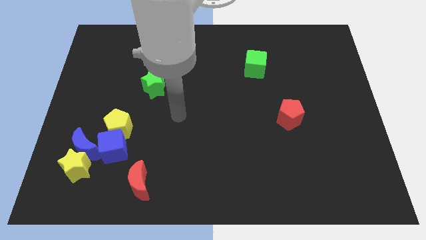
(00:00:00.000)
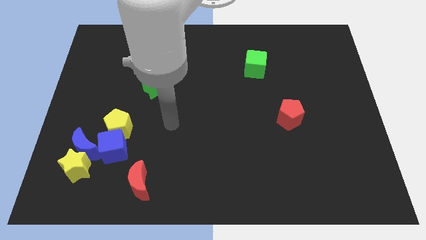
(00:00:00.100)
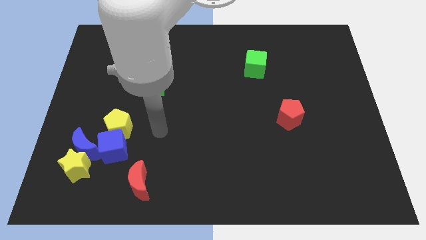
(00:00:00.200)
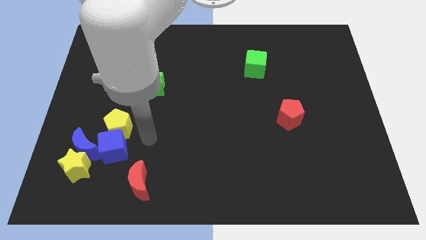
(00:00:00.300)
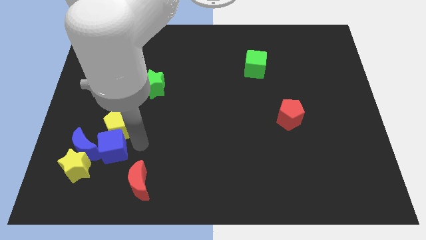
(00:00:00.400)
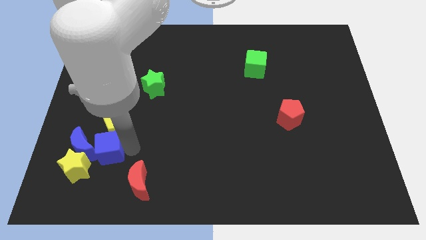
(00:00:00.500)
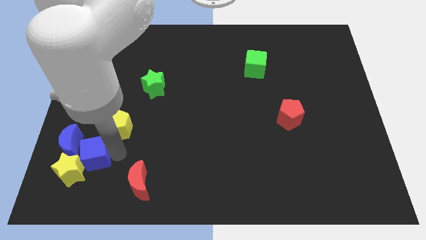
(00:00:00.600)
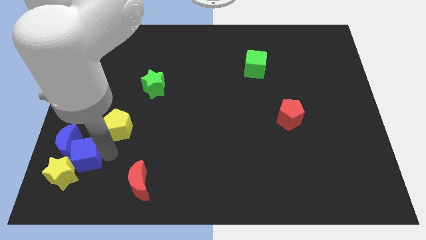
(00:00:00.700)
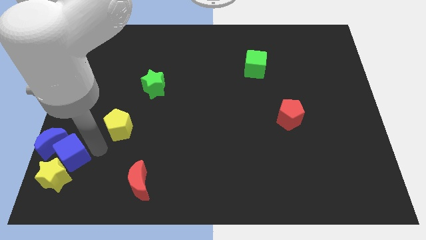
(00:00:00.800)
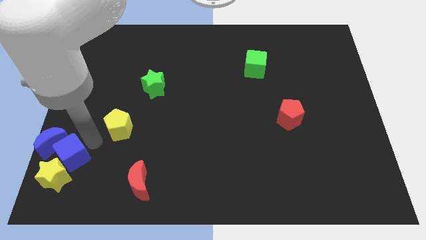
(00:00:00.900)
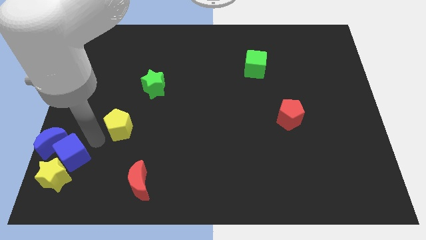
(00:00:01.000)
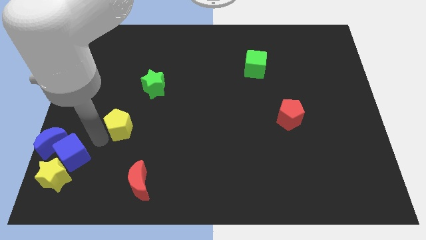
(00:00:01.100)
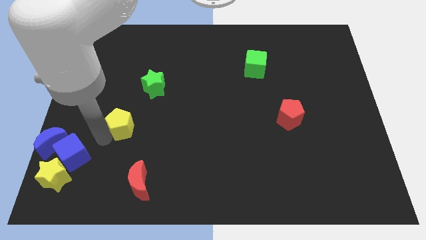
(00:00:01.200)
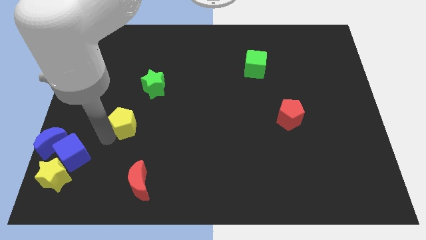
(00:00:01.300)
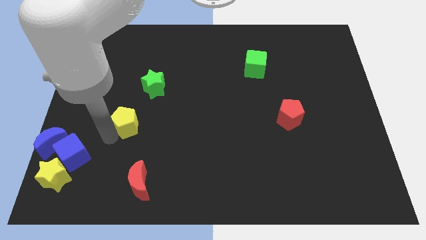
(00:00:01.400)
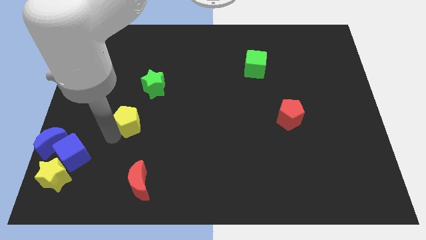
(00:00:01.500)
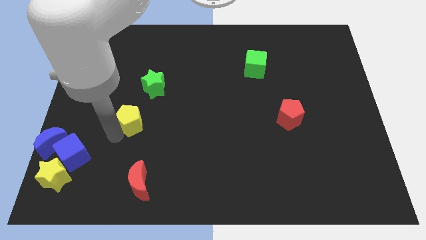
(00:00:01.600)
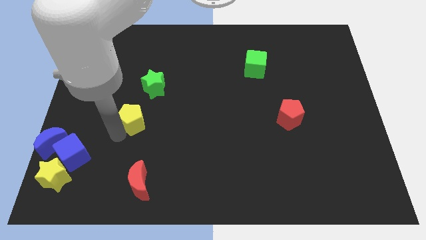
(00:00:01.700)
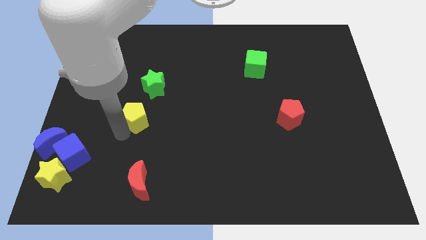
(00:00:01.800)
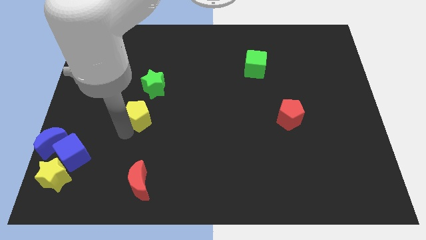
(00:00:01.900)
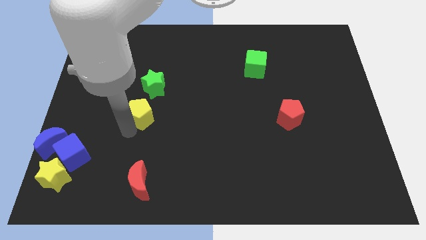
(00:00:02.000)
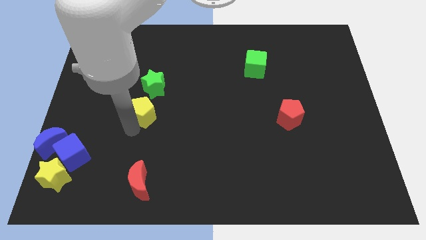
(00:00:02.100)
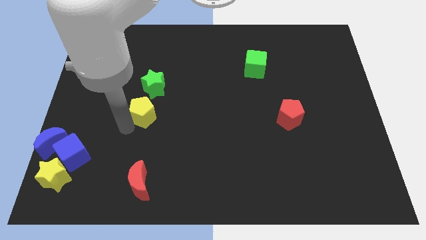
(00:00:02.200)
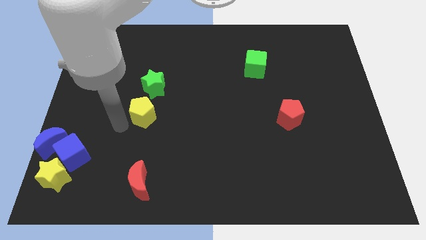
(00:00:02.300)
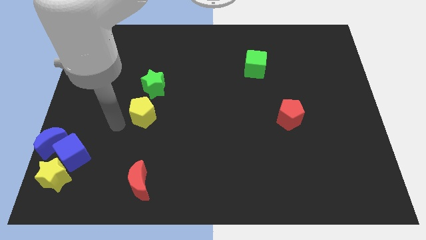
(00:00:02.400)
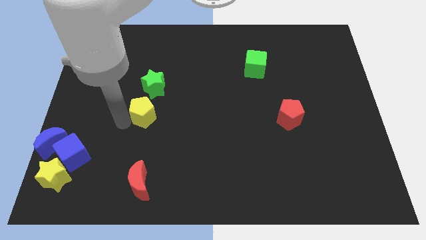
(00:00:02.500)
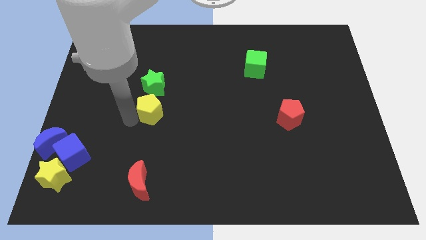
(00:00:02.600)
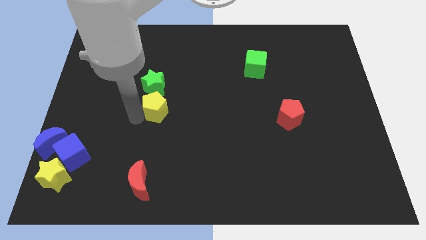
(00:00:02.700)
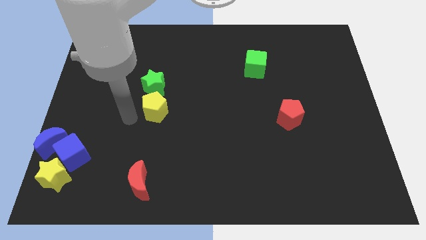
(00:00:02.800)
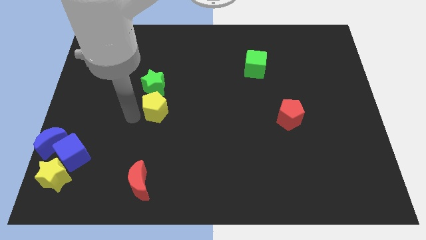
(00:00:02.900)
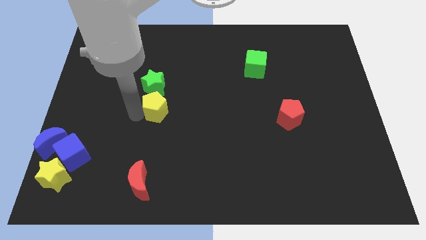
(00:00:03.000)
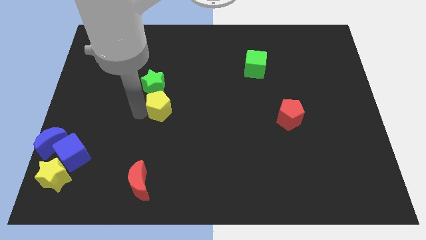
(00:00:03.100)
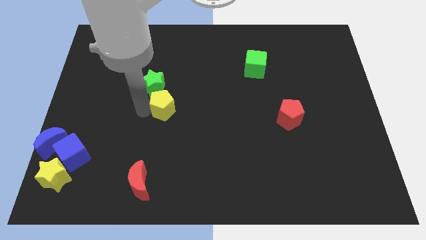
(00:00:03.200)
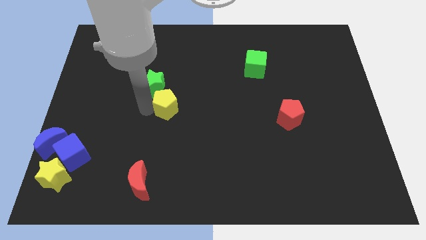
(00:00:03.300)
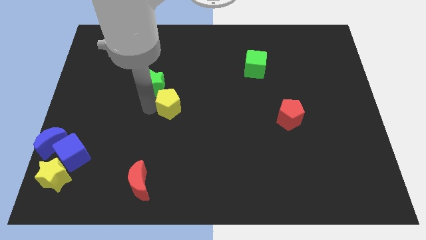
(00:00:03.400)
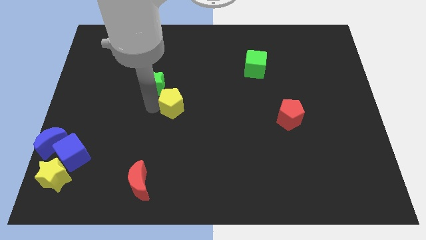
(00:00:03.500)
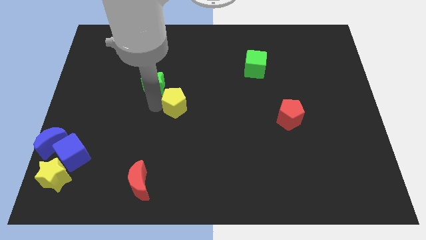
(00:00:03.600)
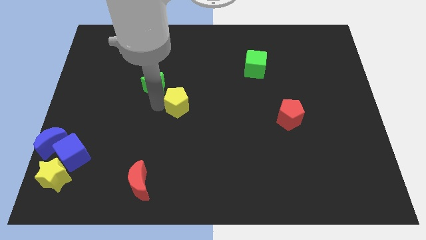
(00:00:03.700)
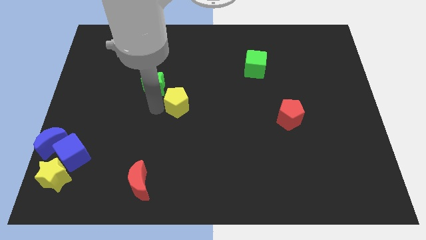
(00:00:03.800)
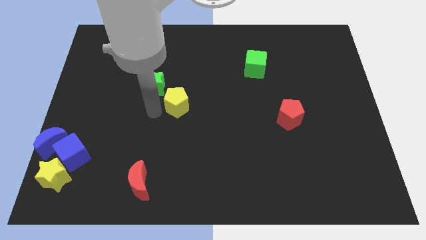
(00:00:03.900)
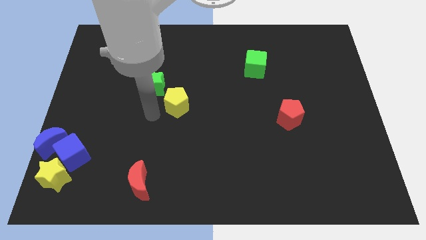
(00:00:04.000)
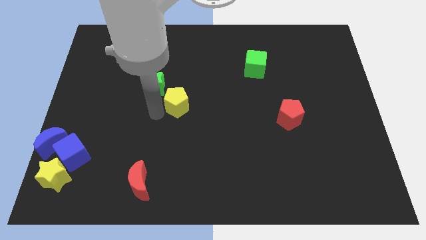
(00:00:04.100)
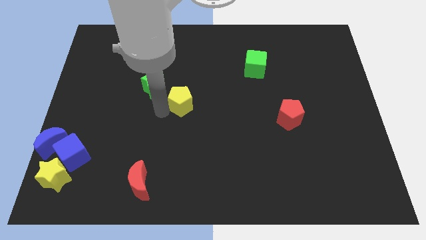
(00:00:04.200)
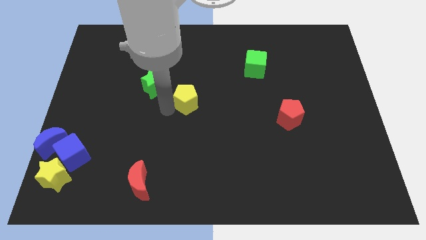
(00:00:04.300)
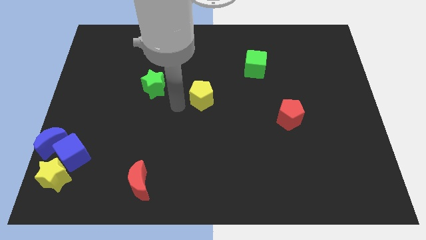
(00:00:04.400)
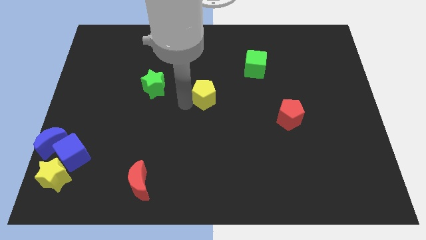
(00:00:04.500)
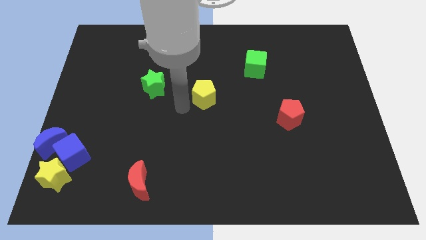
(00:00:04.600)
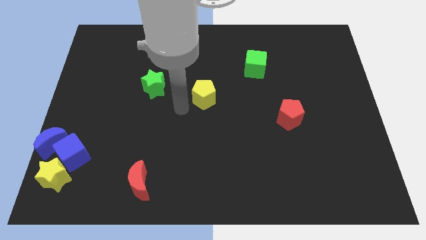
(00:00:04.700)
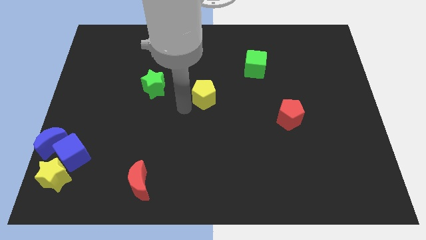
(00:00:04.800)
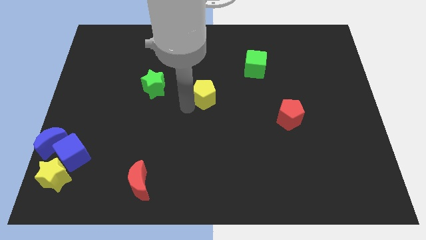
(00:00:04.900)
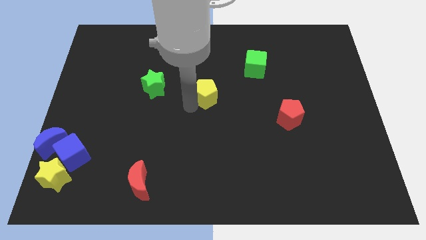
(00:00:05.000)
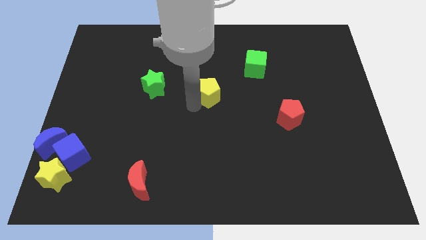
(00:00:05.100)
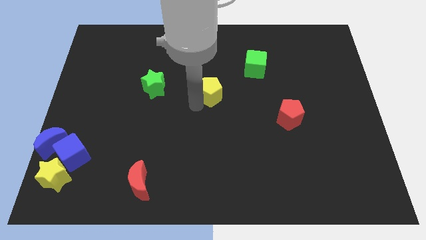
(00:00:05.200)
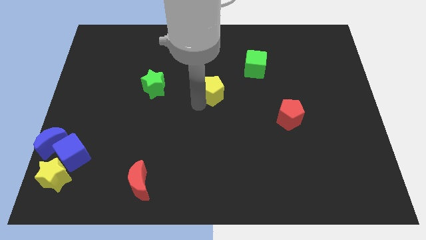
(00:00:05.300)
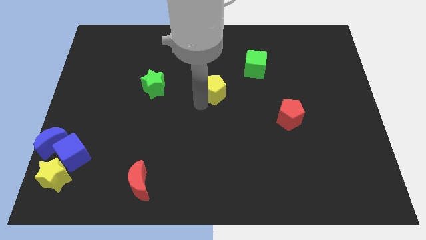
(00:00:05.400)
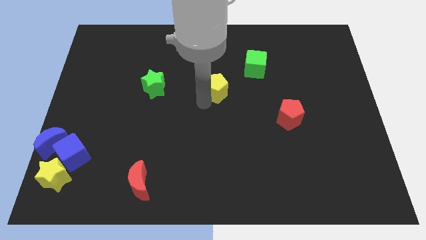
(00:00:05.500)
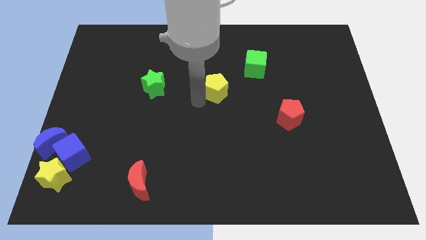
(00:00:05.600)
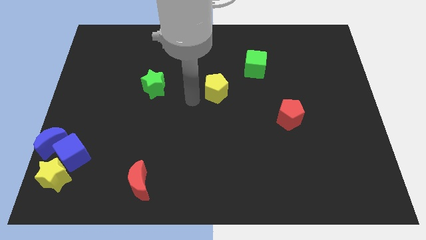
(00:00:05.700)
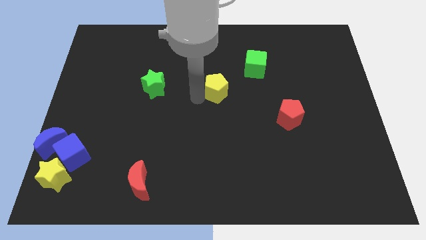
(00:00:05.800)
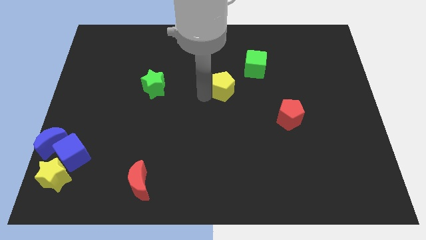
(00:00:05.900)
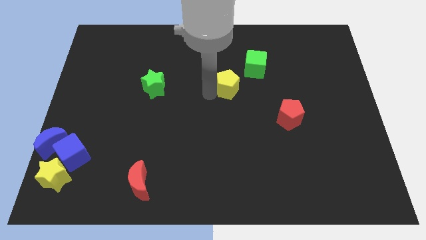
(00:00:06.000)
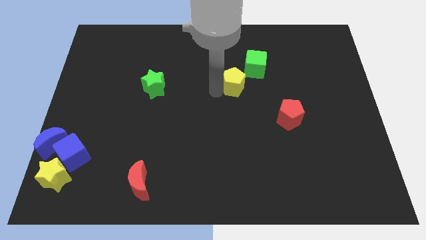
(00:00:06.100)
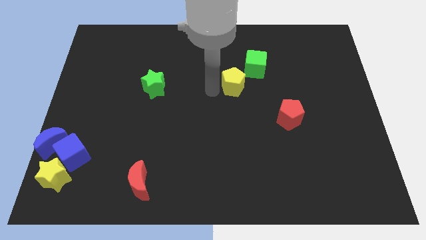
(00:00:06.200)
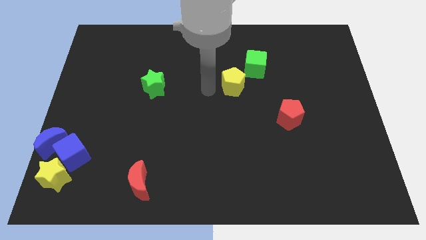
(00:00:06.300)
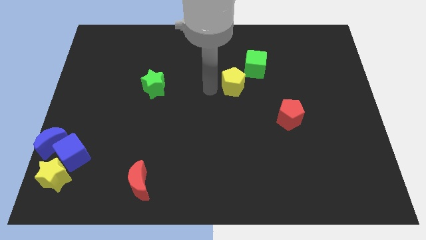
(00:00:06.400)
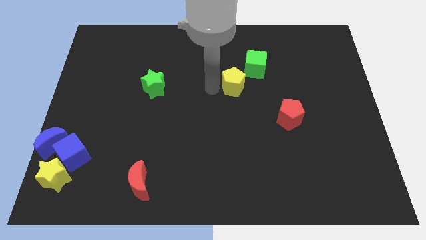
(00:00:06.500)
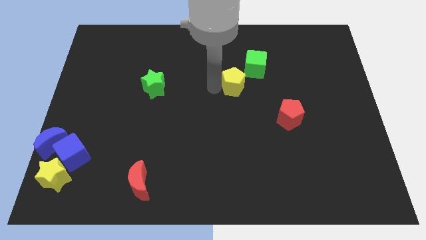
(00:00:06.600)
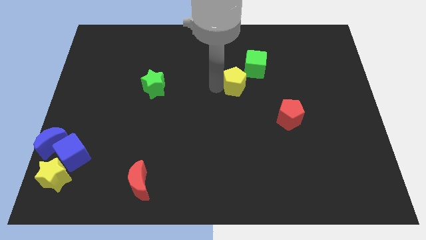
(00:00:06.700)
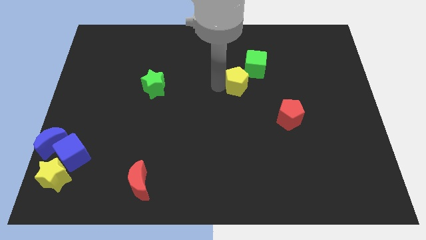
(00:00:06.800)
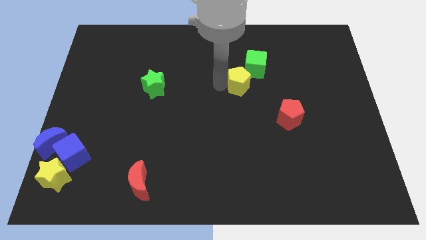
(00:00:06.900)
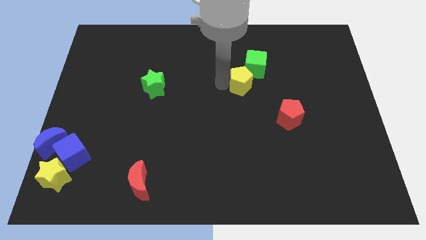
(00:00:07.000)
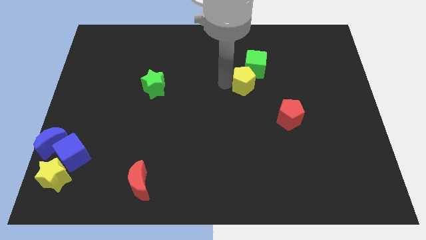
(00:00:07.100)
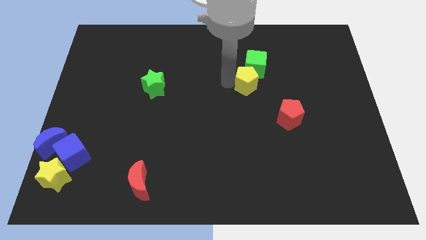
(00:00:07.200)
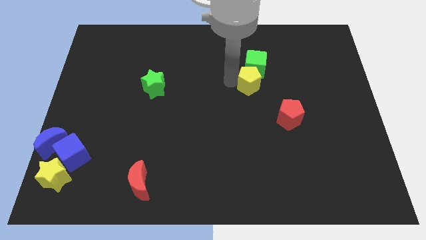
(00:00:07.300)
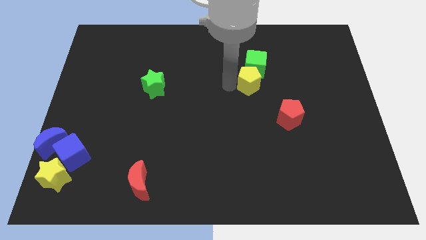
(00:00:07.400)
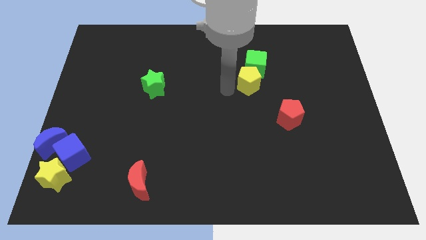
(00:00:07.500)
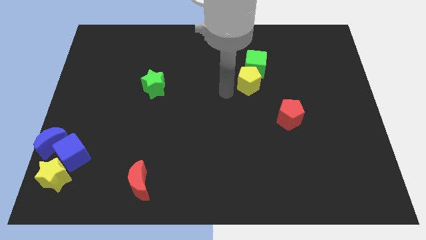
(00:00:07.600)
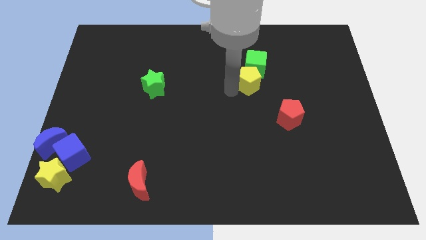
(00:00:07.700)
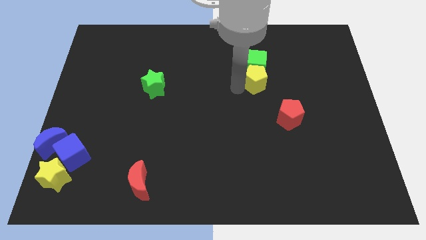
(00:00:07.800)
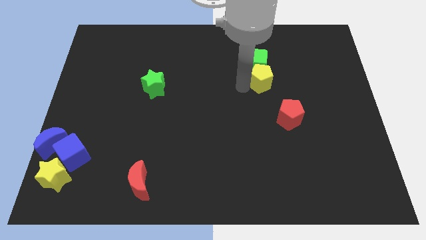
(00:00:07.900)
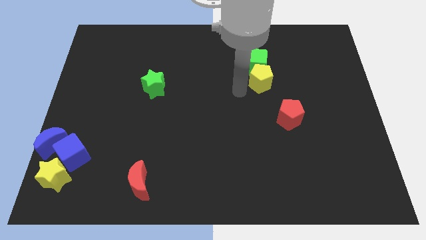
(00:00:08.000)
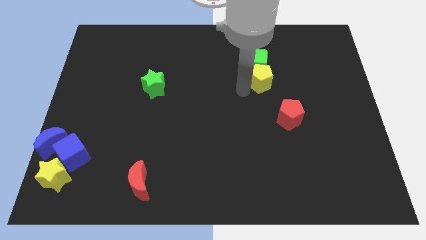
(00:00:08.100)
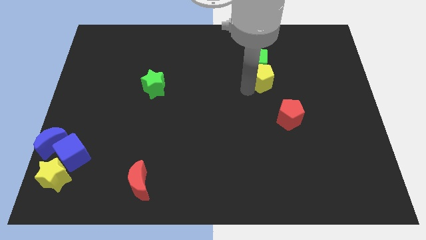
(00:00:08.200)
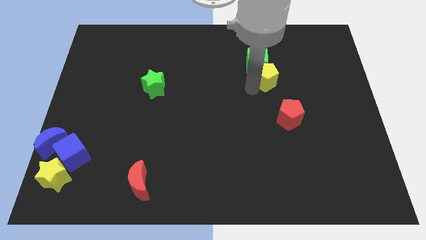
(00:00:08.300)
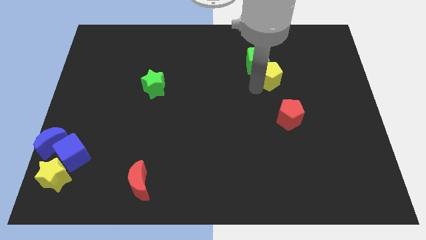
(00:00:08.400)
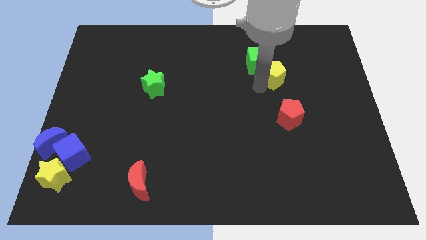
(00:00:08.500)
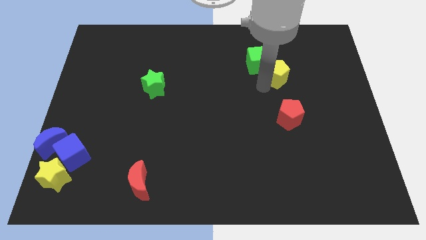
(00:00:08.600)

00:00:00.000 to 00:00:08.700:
push the yellow pentagon to the right side of the green cube
